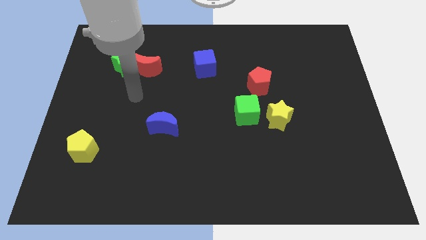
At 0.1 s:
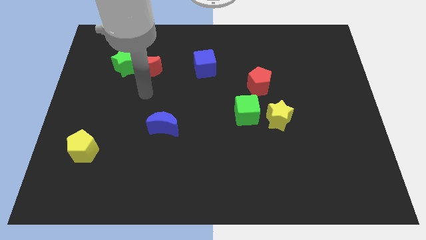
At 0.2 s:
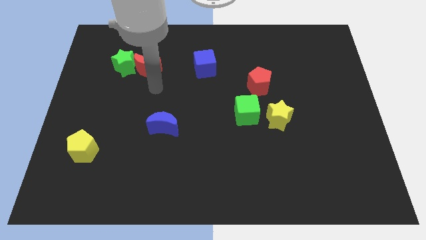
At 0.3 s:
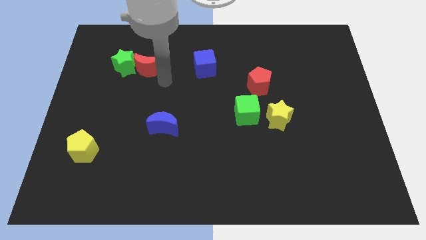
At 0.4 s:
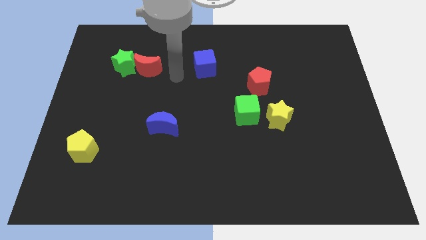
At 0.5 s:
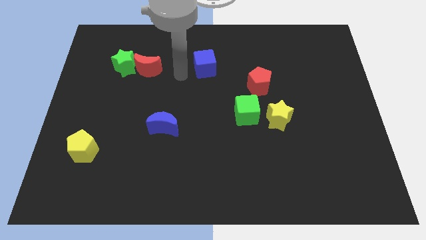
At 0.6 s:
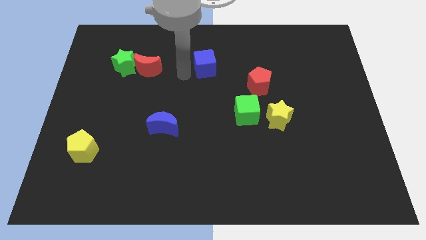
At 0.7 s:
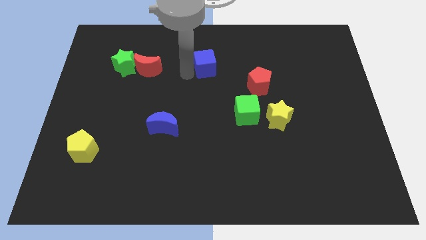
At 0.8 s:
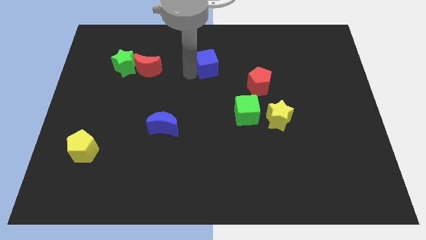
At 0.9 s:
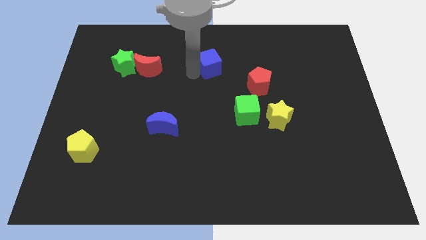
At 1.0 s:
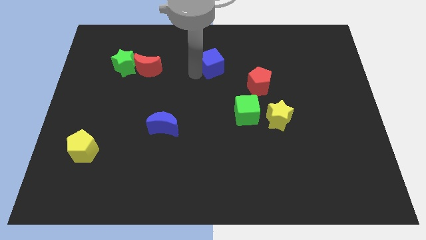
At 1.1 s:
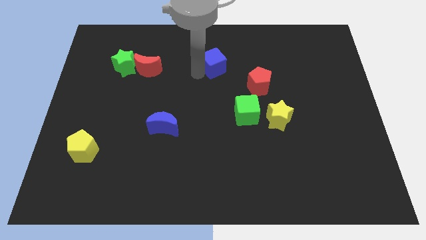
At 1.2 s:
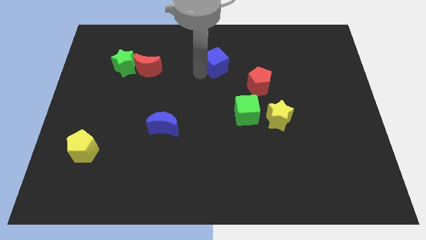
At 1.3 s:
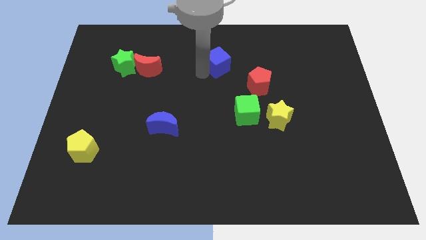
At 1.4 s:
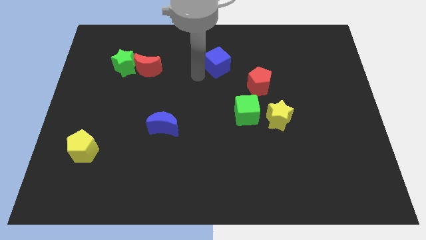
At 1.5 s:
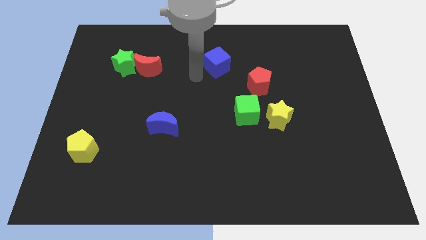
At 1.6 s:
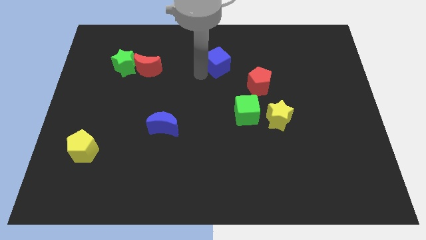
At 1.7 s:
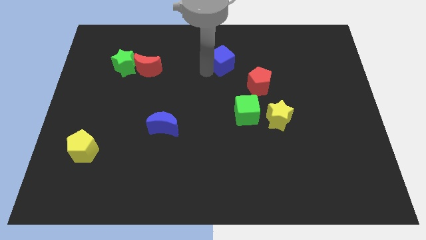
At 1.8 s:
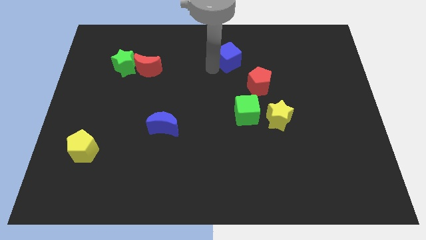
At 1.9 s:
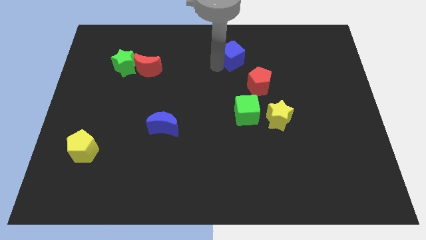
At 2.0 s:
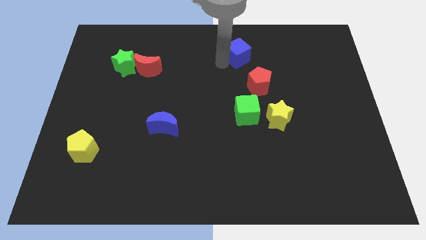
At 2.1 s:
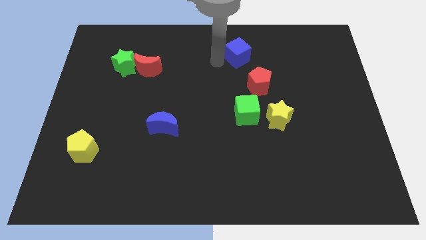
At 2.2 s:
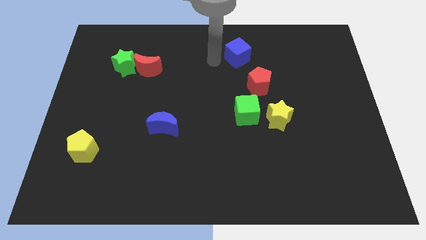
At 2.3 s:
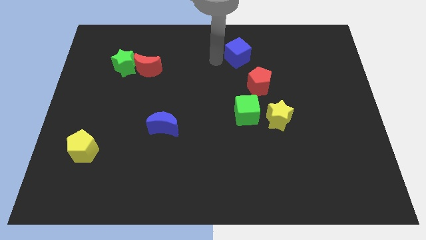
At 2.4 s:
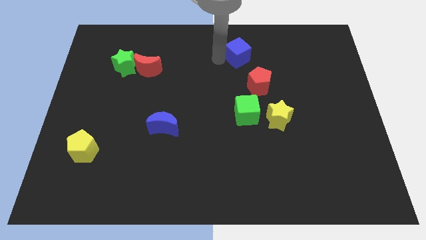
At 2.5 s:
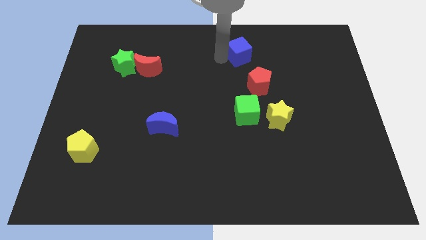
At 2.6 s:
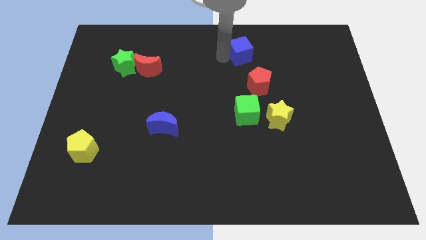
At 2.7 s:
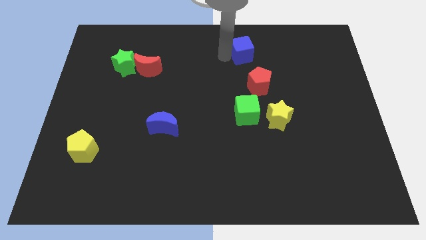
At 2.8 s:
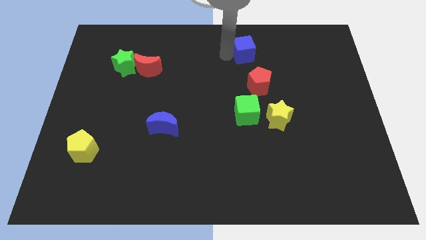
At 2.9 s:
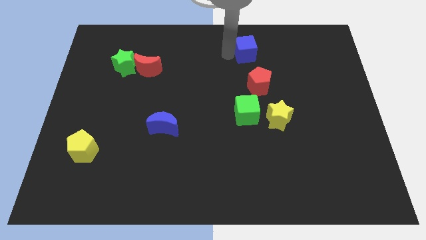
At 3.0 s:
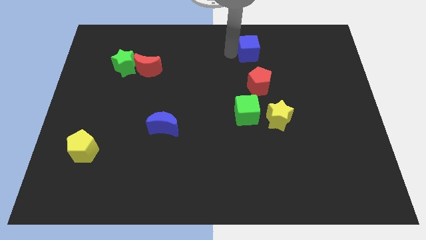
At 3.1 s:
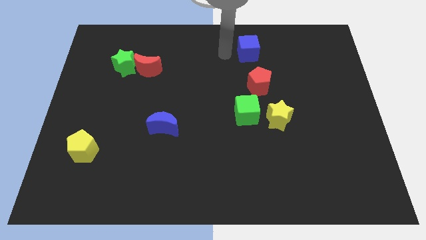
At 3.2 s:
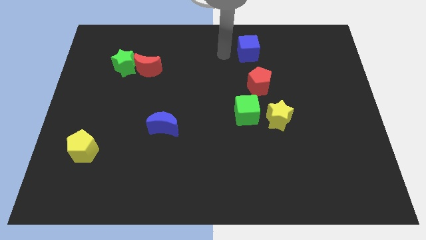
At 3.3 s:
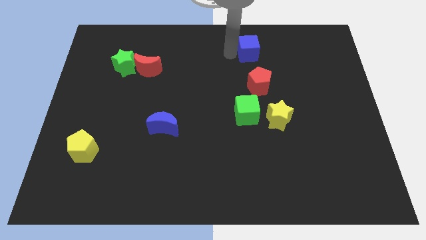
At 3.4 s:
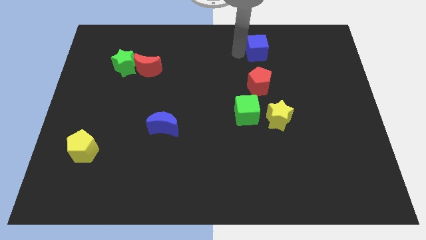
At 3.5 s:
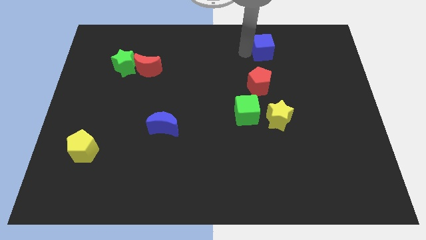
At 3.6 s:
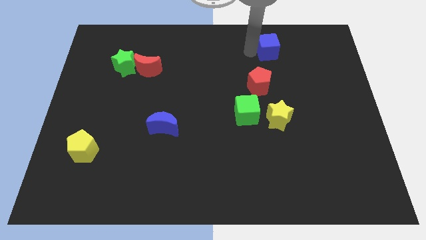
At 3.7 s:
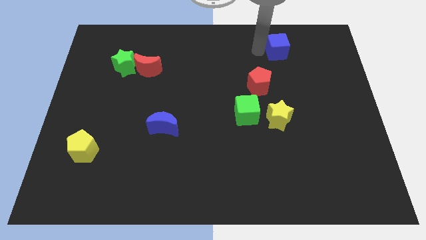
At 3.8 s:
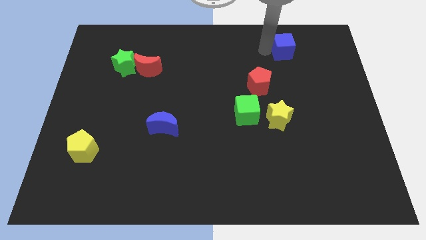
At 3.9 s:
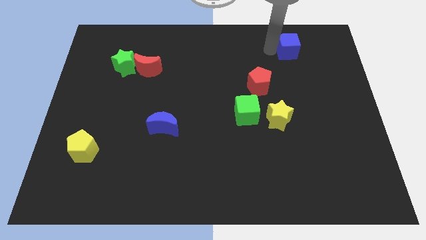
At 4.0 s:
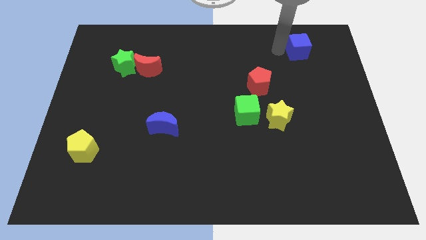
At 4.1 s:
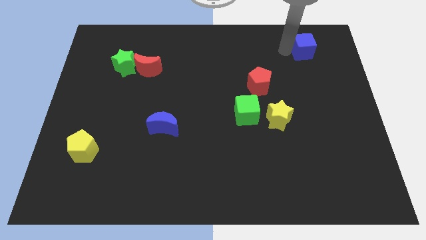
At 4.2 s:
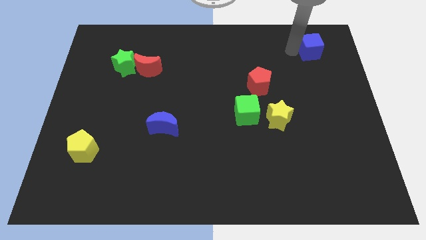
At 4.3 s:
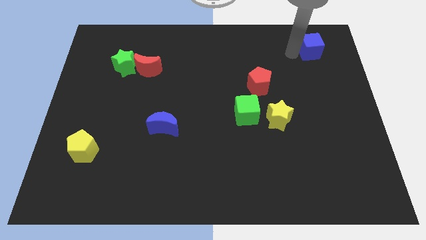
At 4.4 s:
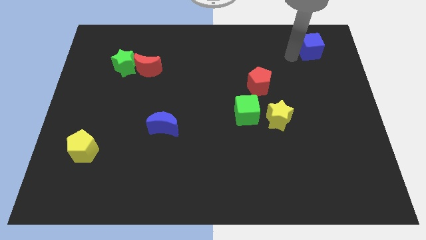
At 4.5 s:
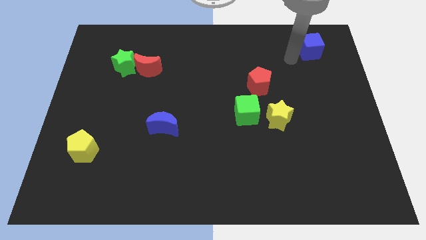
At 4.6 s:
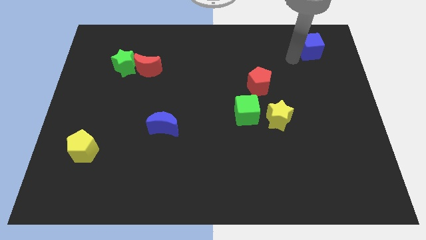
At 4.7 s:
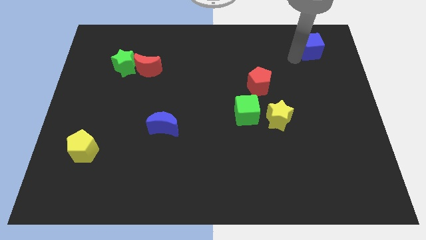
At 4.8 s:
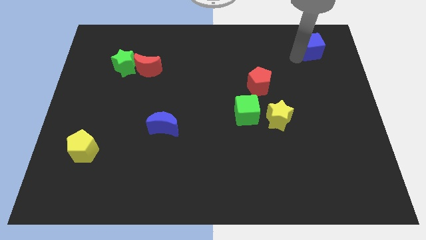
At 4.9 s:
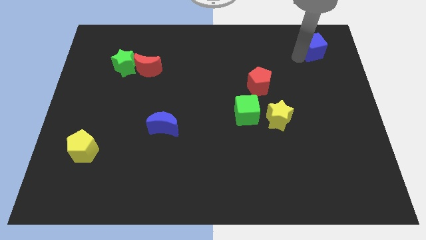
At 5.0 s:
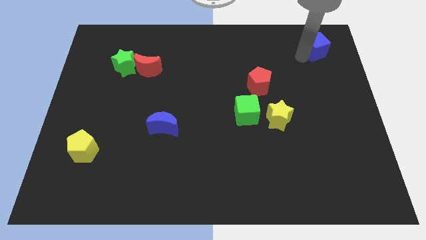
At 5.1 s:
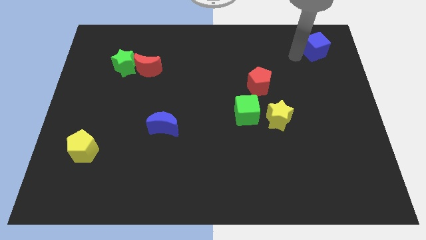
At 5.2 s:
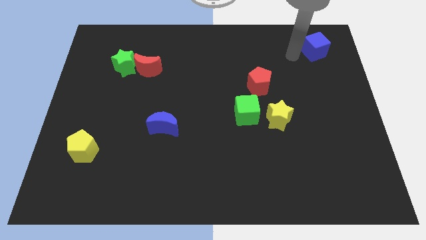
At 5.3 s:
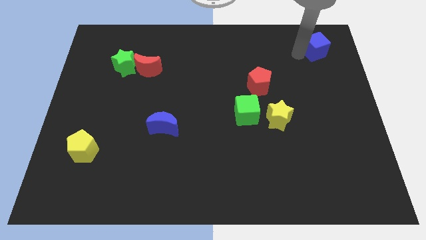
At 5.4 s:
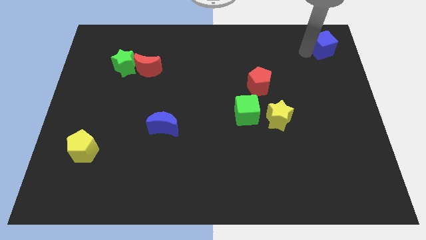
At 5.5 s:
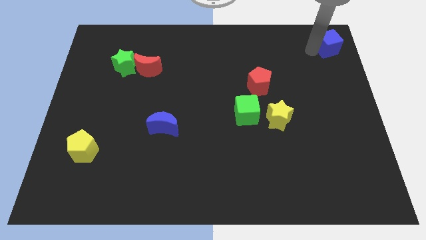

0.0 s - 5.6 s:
put the blue cube to the top right of the board
